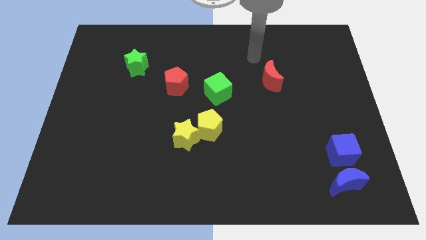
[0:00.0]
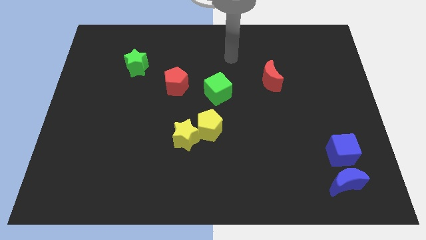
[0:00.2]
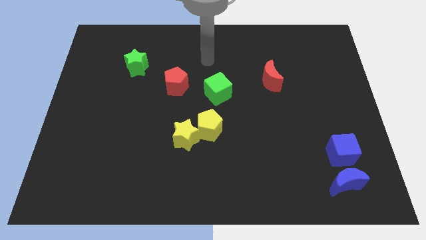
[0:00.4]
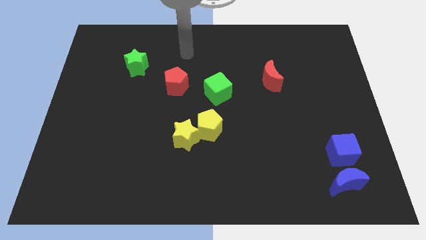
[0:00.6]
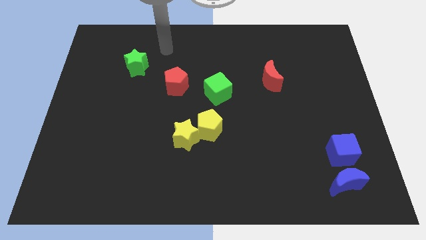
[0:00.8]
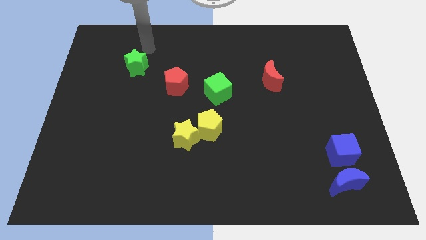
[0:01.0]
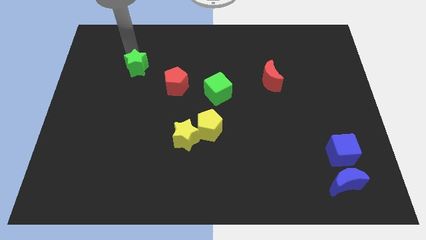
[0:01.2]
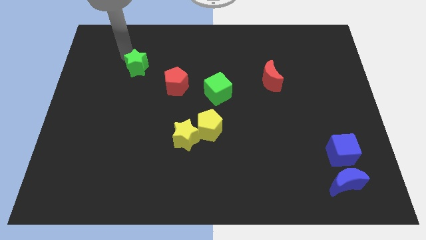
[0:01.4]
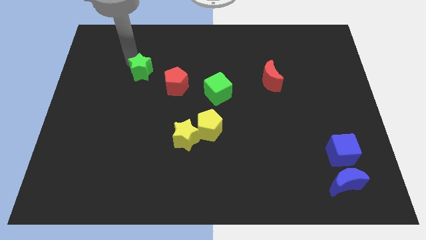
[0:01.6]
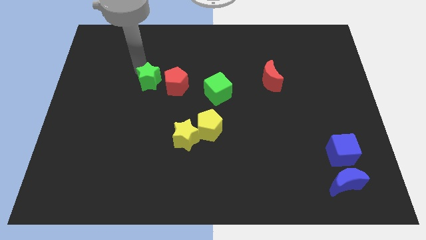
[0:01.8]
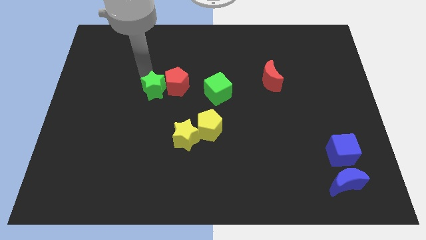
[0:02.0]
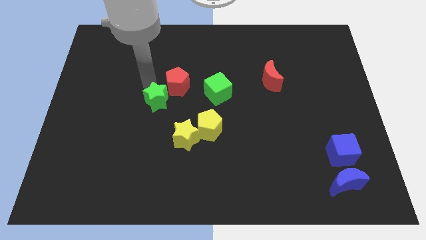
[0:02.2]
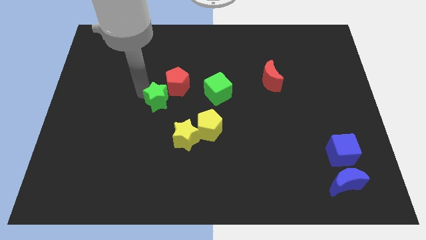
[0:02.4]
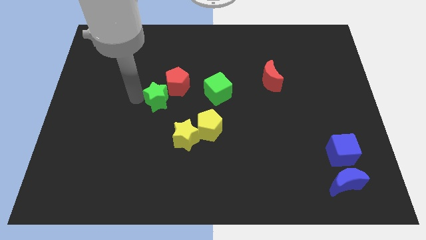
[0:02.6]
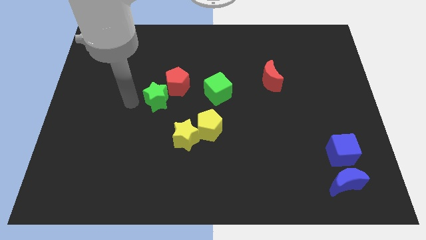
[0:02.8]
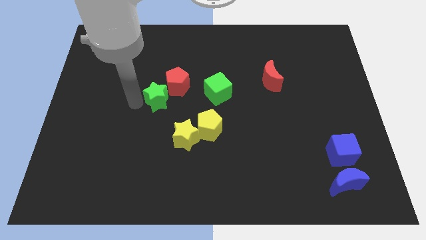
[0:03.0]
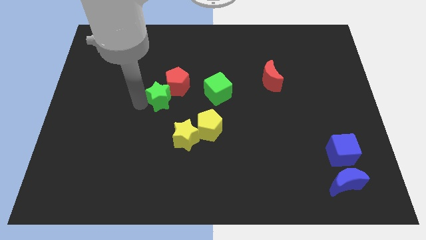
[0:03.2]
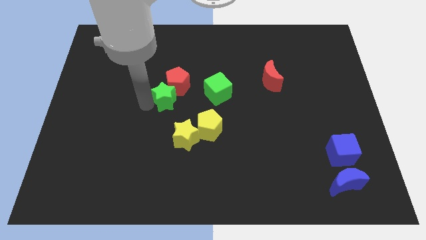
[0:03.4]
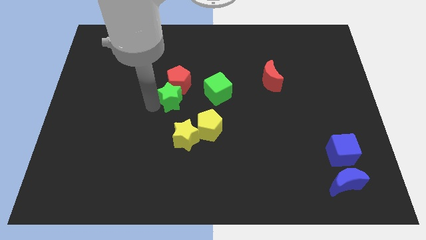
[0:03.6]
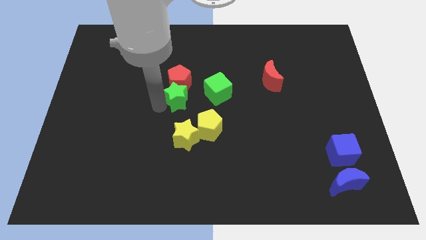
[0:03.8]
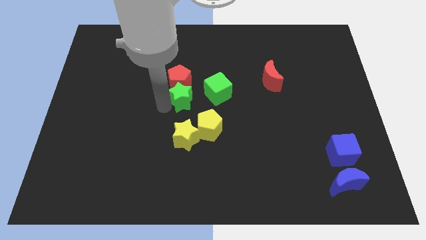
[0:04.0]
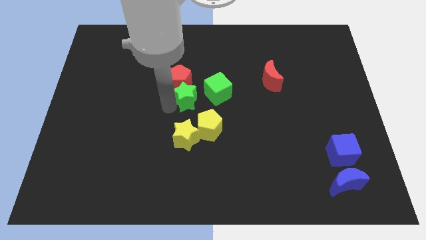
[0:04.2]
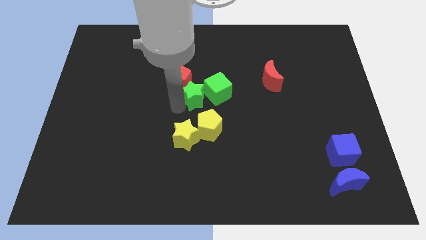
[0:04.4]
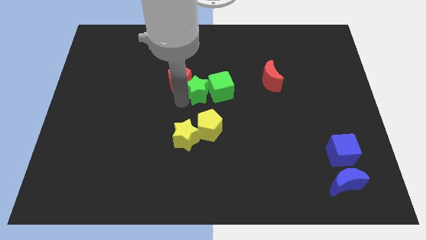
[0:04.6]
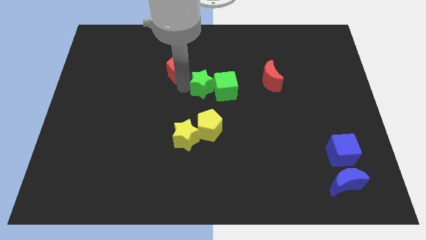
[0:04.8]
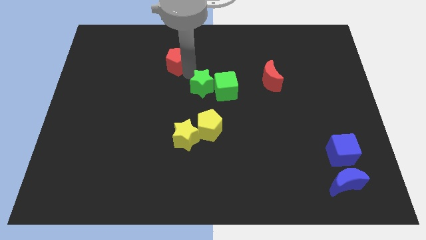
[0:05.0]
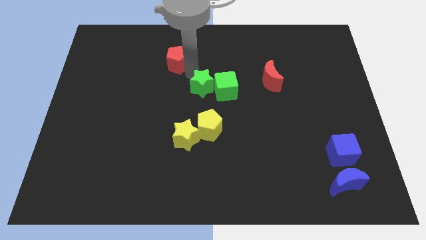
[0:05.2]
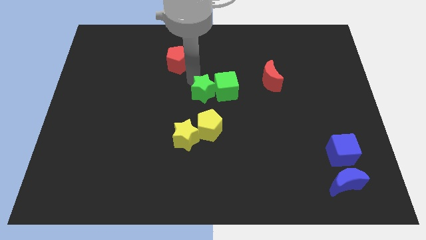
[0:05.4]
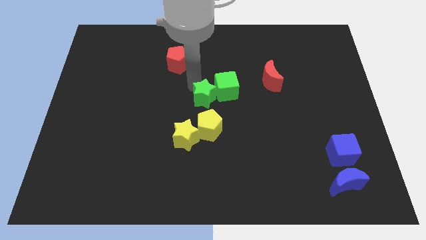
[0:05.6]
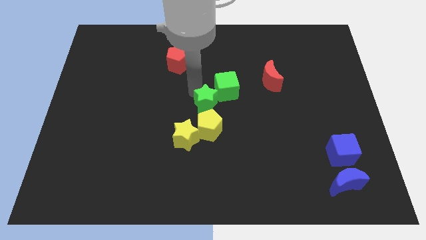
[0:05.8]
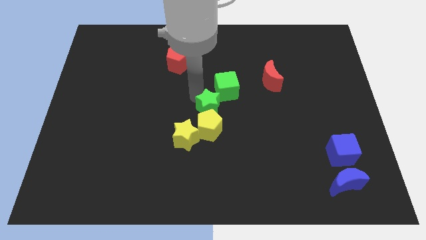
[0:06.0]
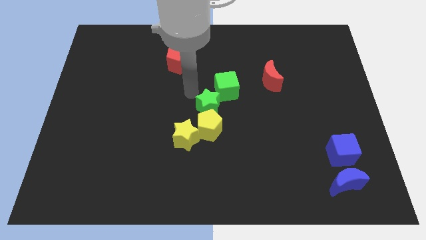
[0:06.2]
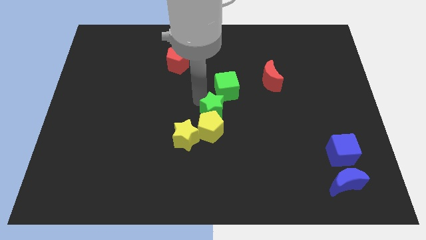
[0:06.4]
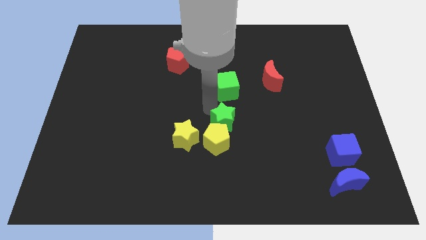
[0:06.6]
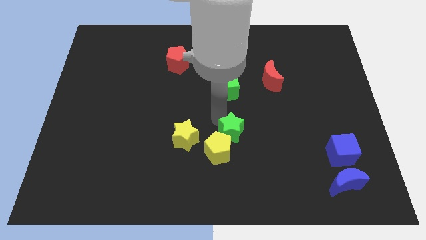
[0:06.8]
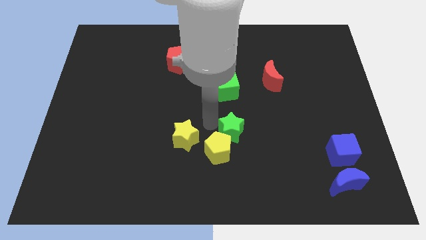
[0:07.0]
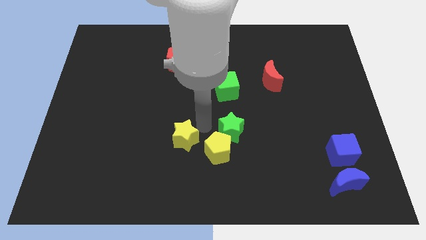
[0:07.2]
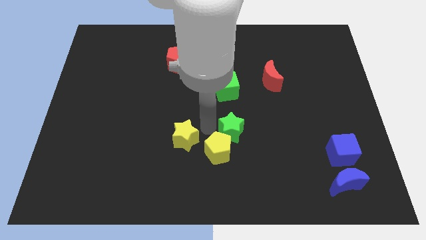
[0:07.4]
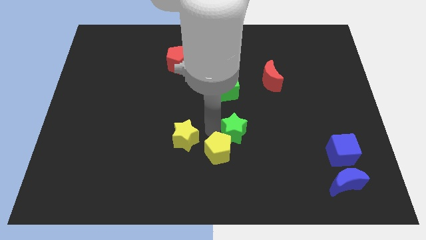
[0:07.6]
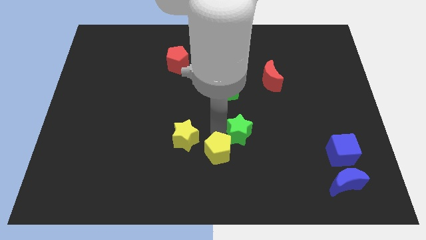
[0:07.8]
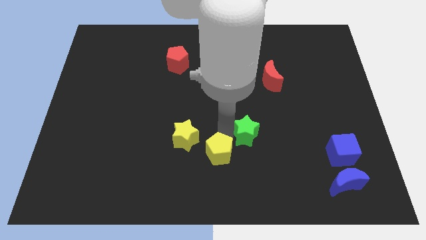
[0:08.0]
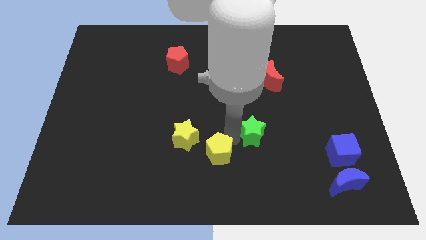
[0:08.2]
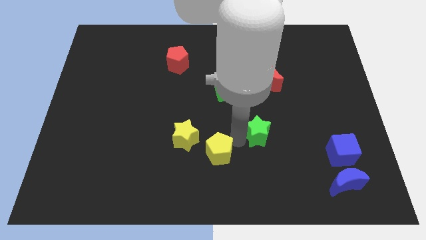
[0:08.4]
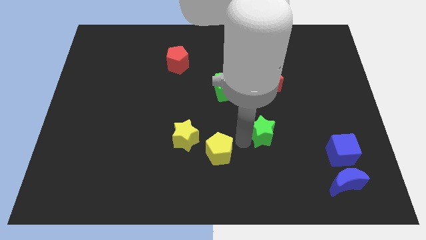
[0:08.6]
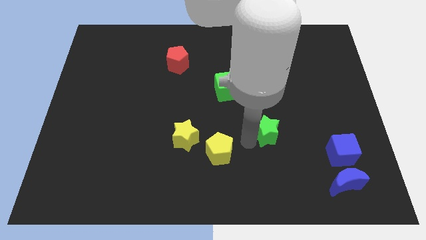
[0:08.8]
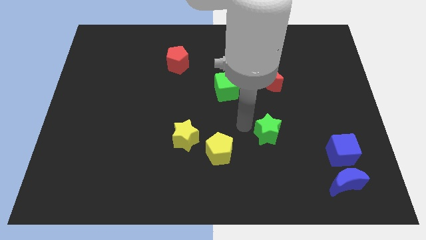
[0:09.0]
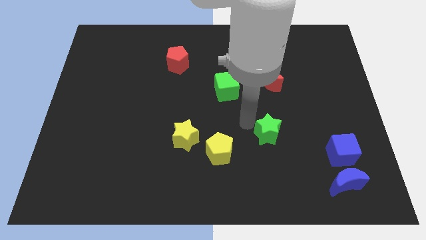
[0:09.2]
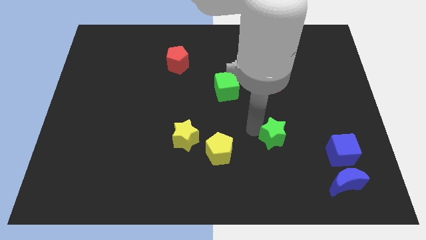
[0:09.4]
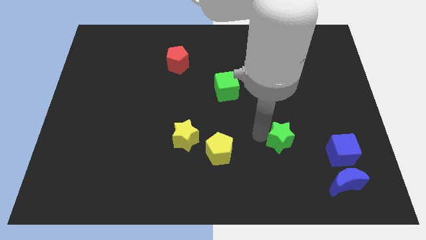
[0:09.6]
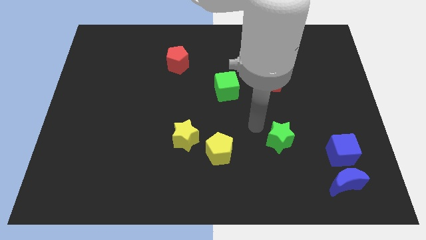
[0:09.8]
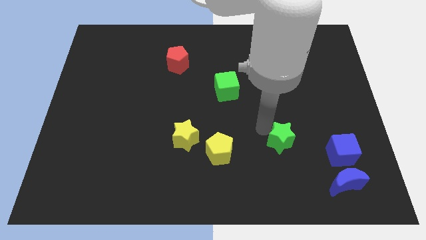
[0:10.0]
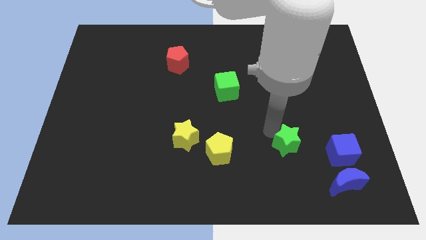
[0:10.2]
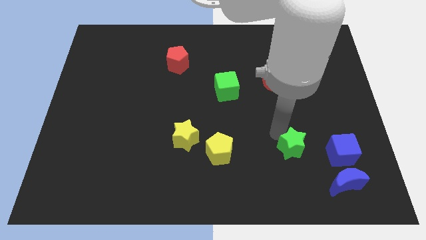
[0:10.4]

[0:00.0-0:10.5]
put the green star to the top left side of the blue moon

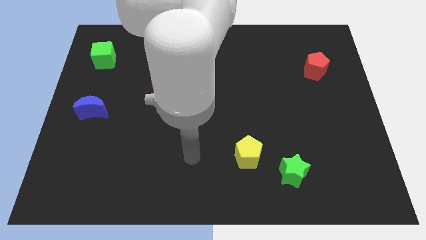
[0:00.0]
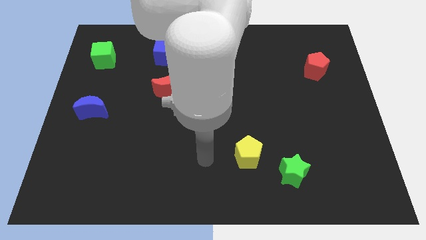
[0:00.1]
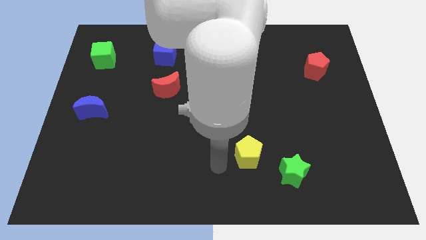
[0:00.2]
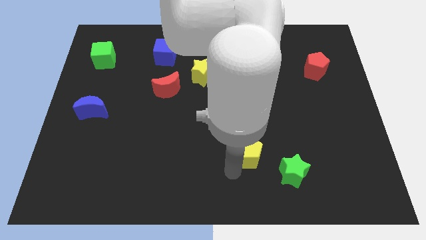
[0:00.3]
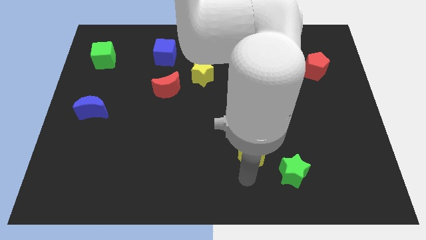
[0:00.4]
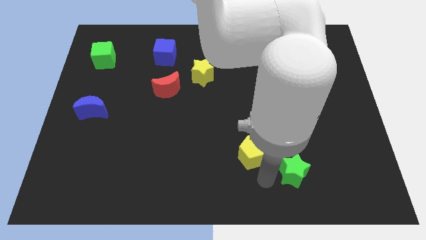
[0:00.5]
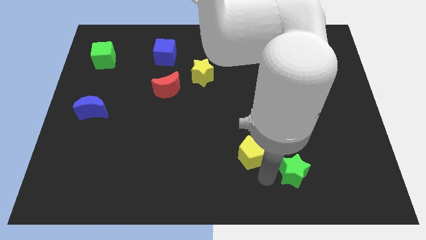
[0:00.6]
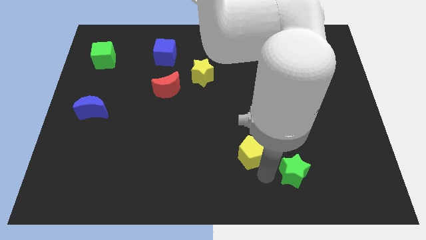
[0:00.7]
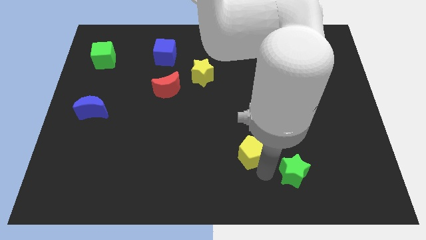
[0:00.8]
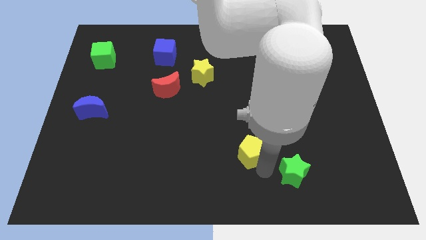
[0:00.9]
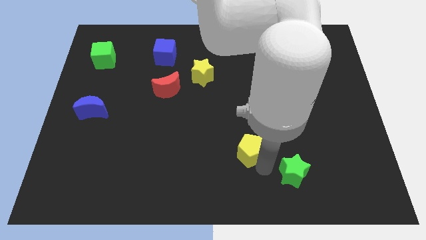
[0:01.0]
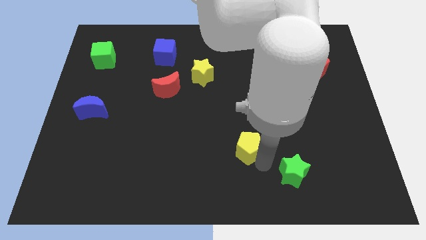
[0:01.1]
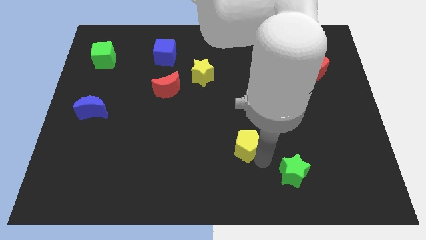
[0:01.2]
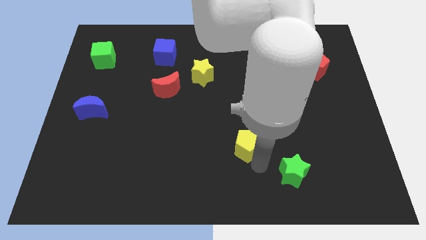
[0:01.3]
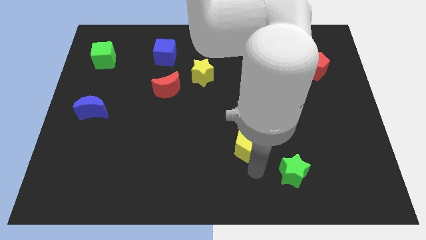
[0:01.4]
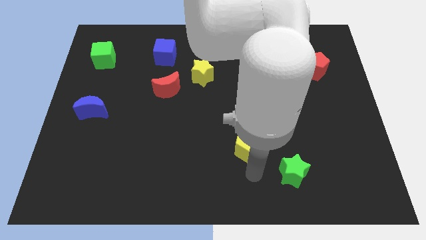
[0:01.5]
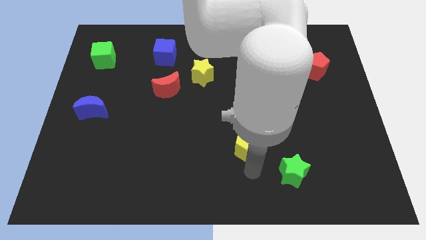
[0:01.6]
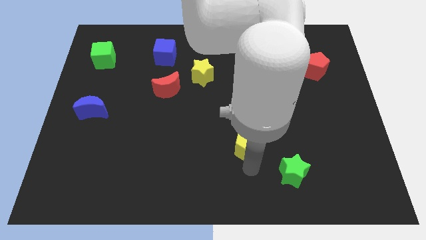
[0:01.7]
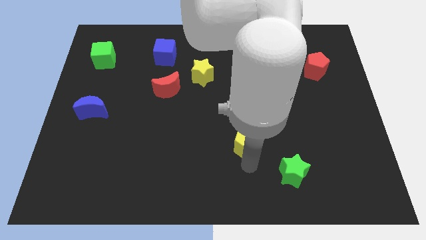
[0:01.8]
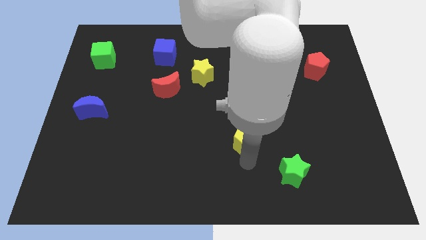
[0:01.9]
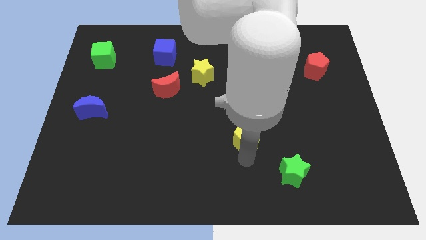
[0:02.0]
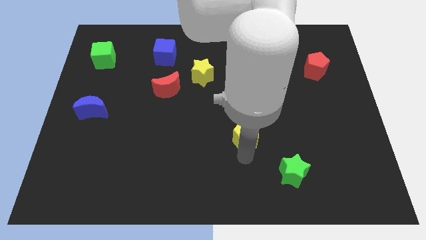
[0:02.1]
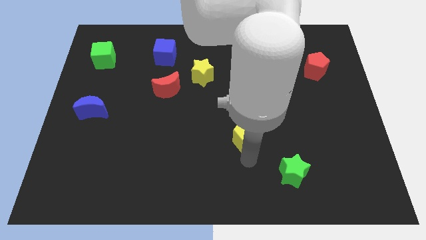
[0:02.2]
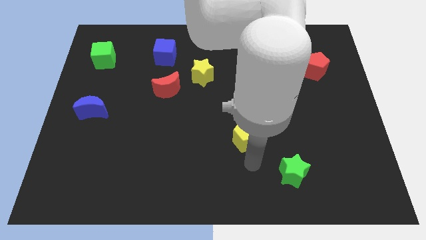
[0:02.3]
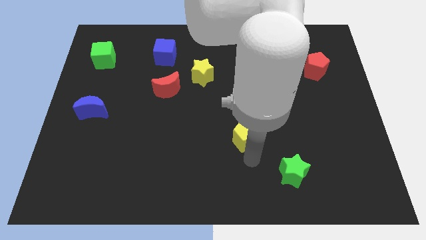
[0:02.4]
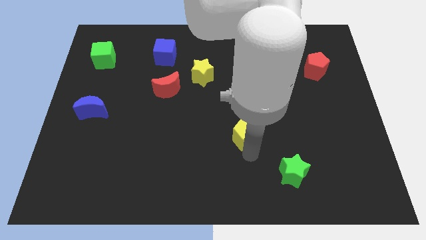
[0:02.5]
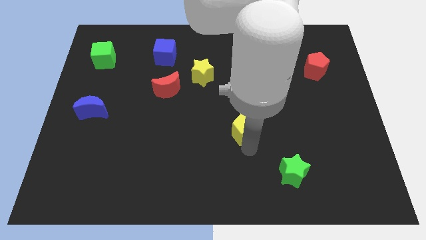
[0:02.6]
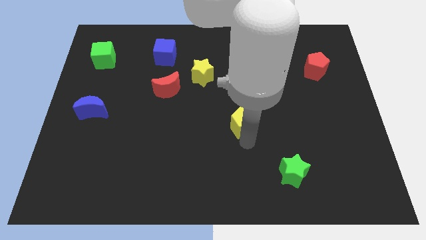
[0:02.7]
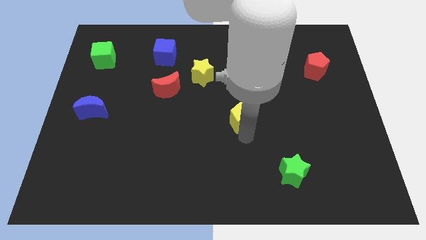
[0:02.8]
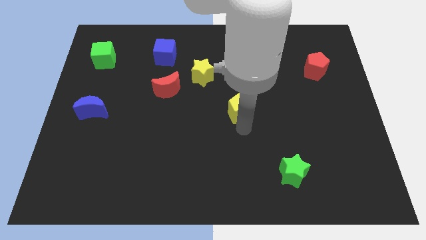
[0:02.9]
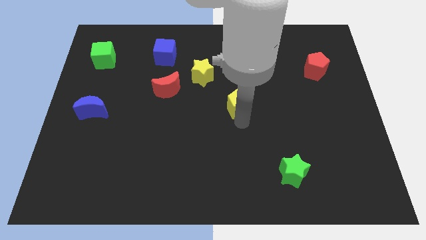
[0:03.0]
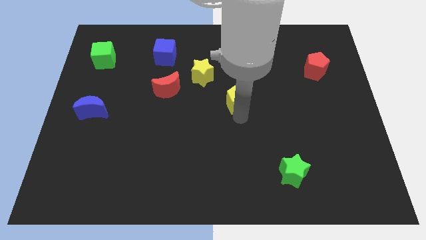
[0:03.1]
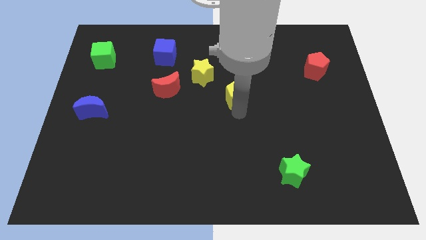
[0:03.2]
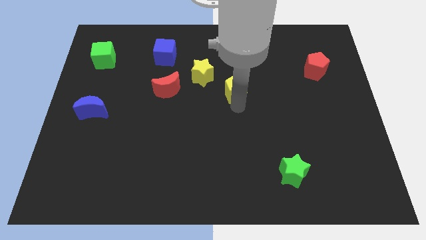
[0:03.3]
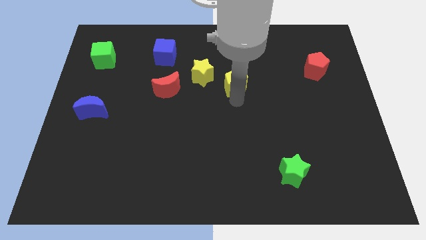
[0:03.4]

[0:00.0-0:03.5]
put the yellow pentagon just right of the yellow star
